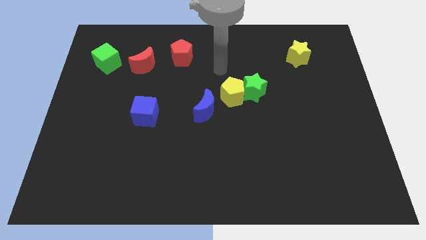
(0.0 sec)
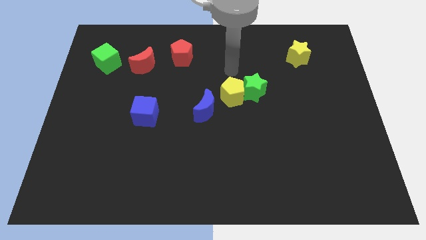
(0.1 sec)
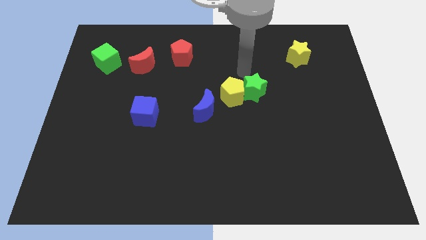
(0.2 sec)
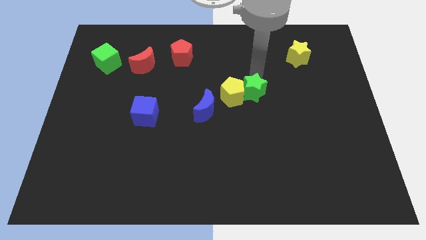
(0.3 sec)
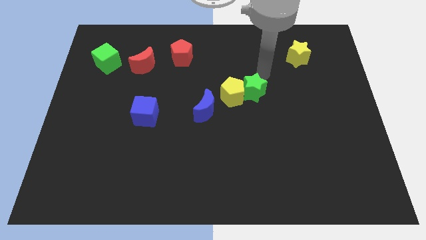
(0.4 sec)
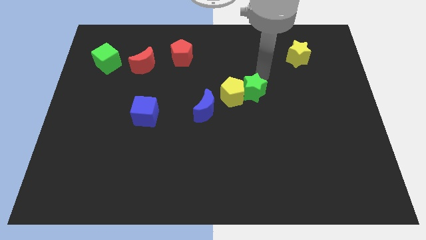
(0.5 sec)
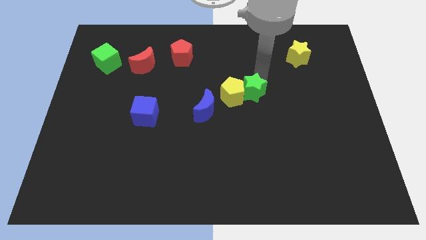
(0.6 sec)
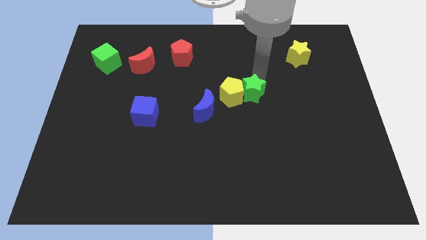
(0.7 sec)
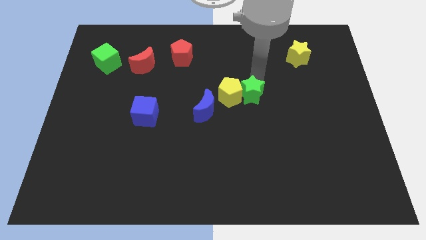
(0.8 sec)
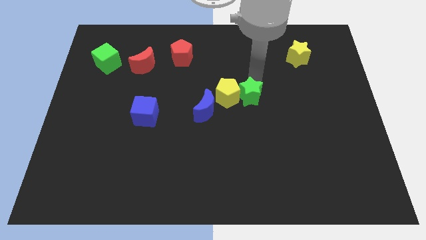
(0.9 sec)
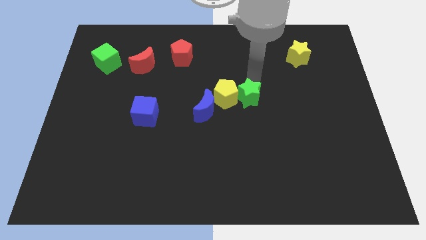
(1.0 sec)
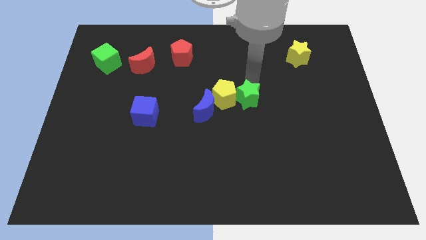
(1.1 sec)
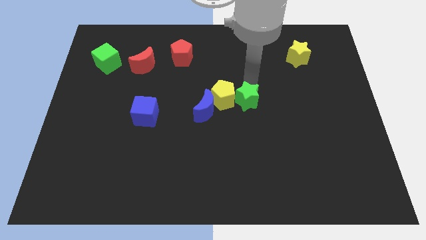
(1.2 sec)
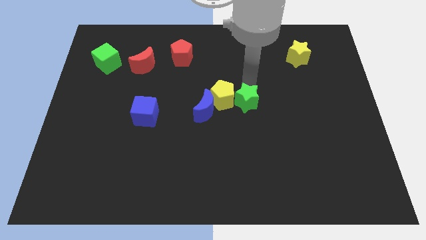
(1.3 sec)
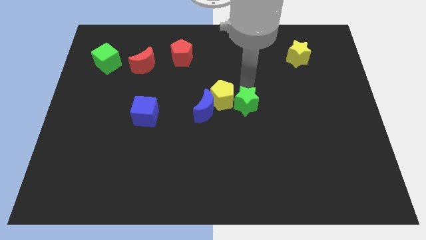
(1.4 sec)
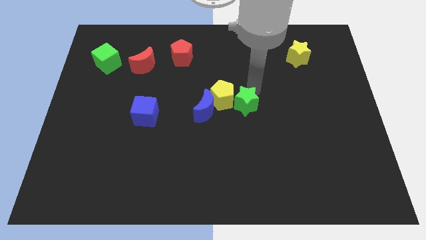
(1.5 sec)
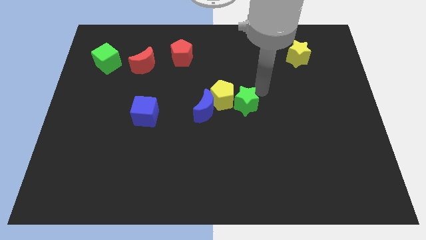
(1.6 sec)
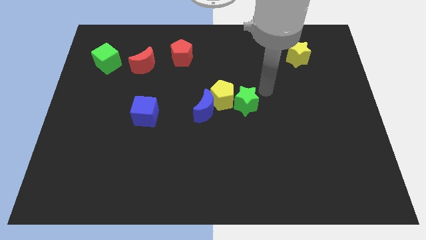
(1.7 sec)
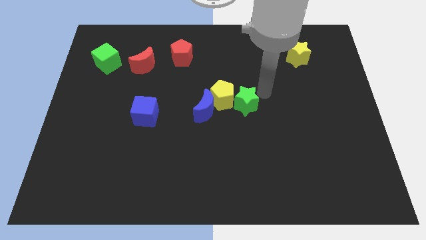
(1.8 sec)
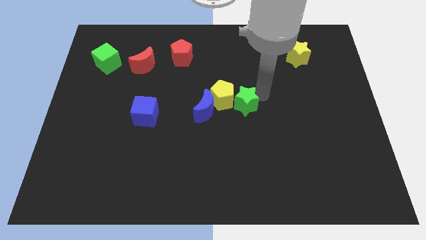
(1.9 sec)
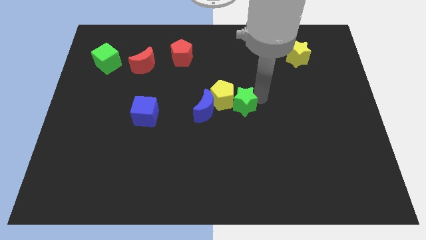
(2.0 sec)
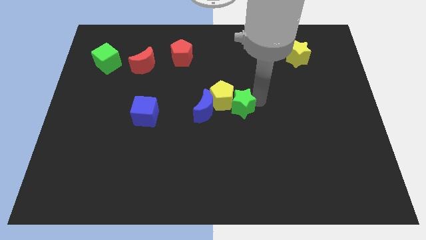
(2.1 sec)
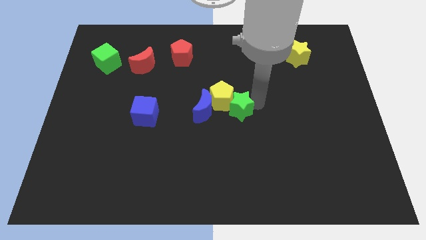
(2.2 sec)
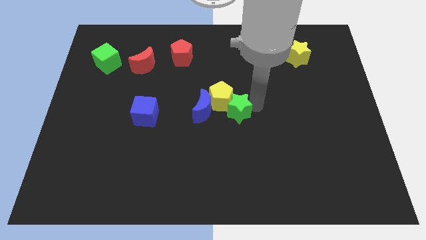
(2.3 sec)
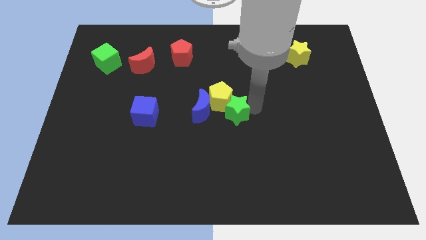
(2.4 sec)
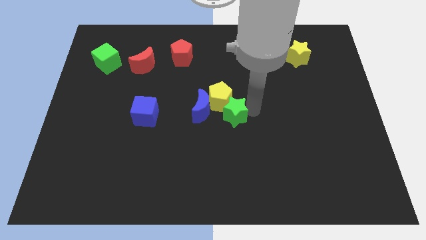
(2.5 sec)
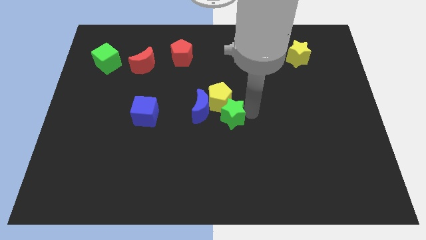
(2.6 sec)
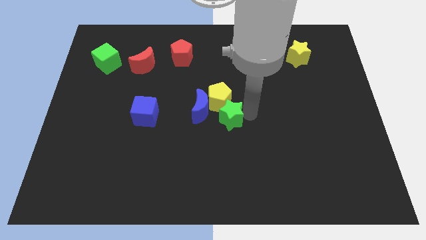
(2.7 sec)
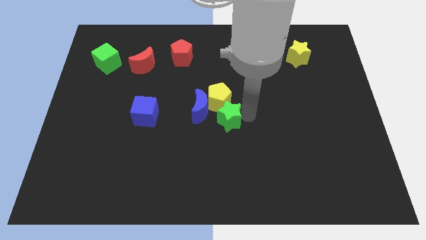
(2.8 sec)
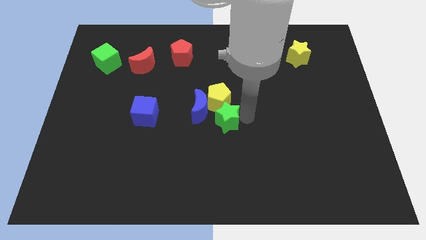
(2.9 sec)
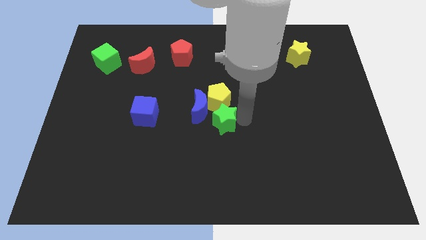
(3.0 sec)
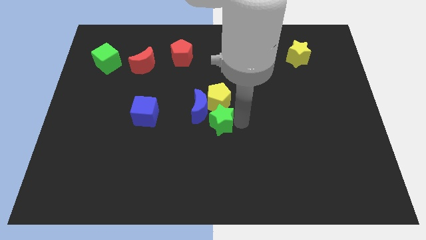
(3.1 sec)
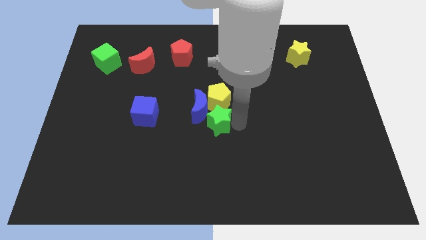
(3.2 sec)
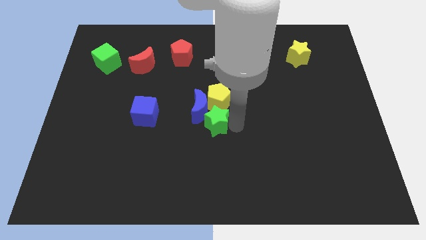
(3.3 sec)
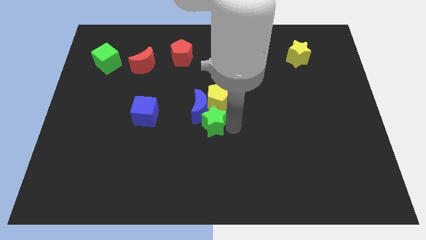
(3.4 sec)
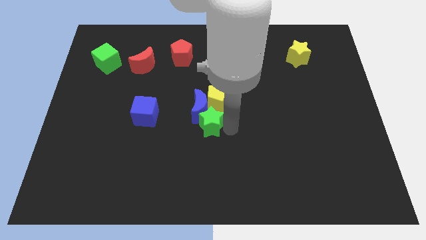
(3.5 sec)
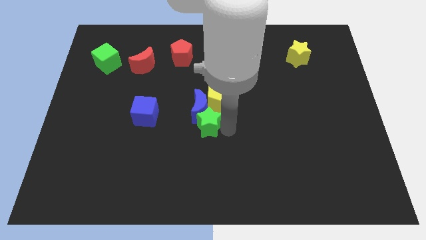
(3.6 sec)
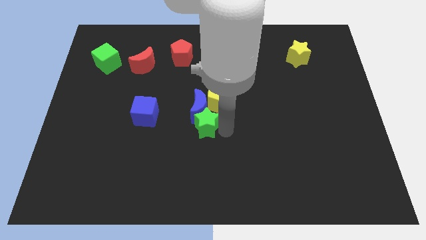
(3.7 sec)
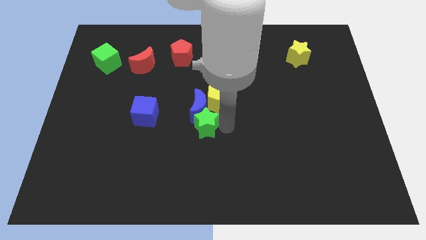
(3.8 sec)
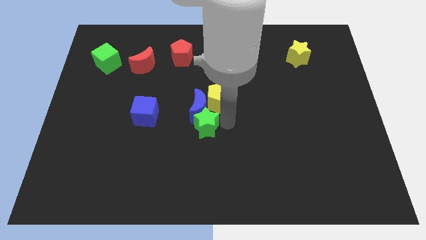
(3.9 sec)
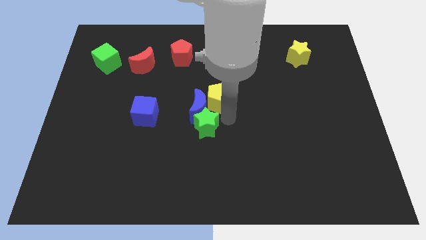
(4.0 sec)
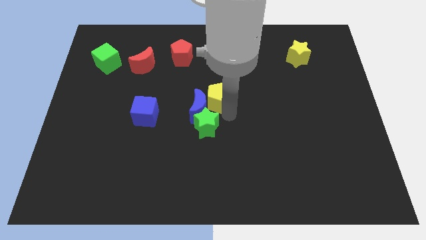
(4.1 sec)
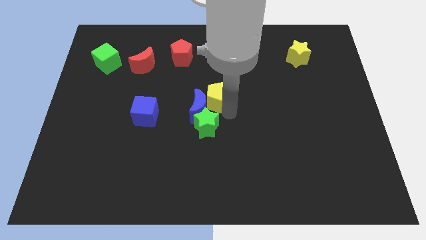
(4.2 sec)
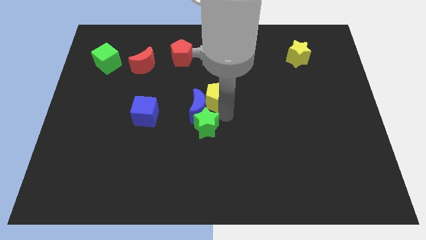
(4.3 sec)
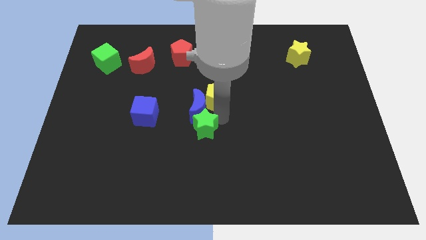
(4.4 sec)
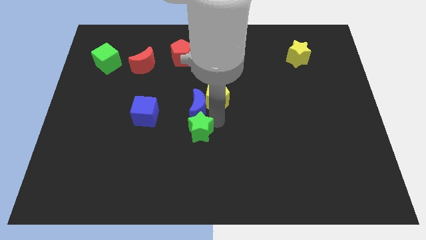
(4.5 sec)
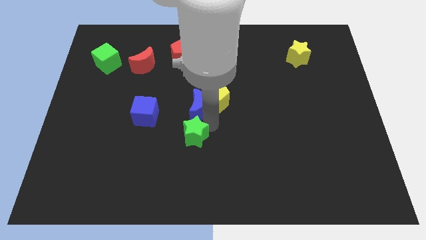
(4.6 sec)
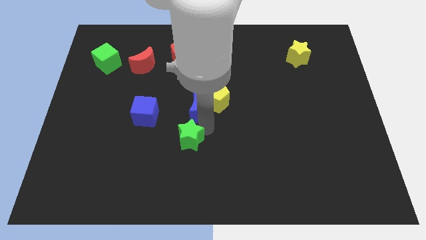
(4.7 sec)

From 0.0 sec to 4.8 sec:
slide the green star diagonally down and left

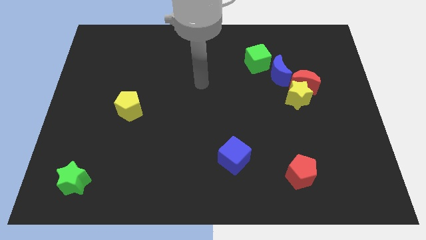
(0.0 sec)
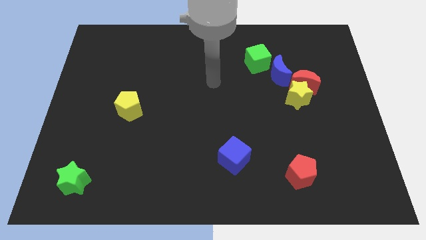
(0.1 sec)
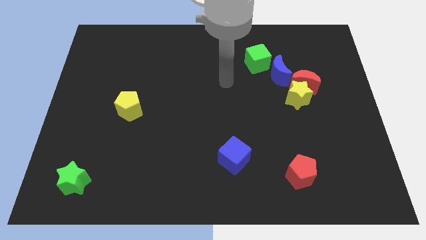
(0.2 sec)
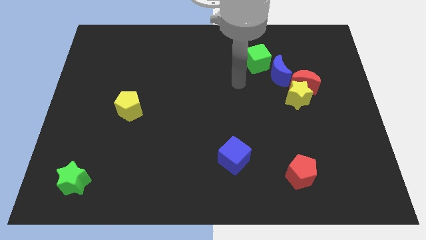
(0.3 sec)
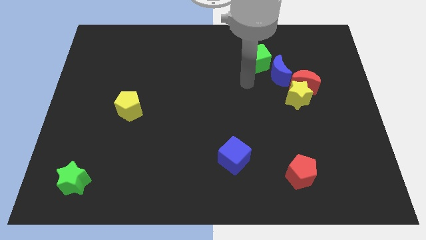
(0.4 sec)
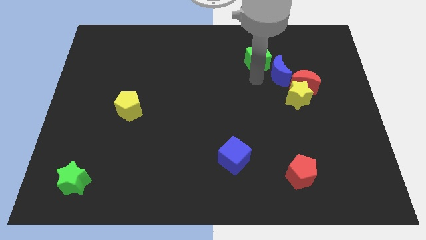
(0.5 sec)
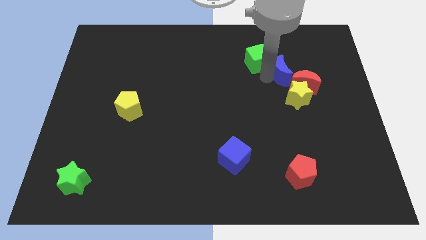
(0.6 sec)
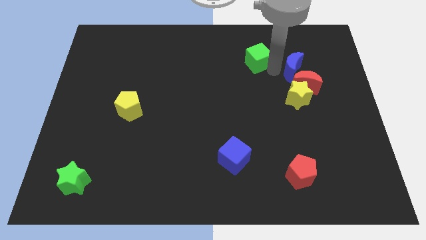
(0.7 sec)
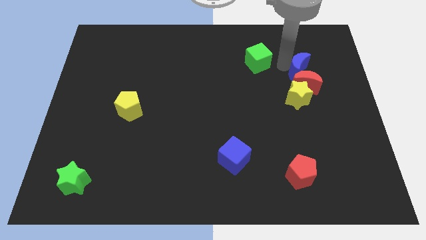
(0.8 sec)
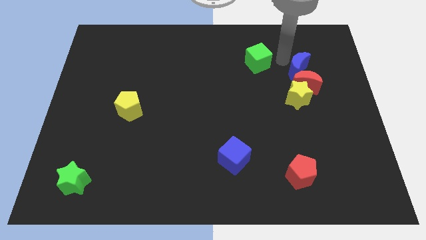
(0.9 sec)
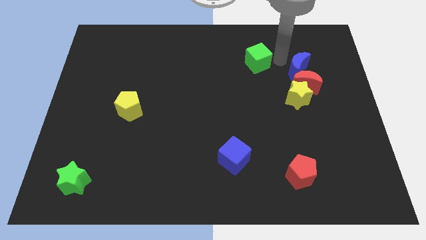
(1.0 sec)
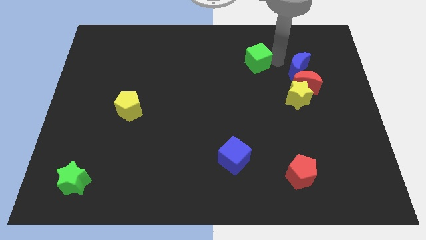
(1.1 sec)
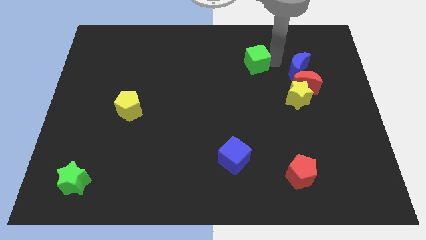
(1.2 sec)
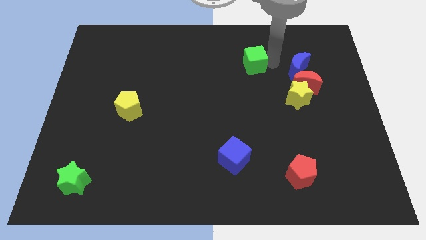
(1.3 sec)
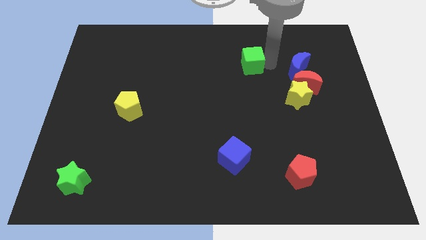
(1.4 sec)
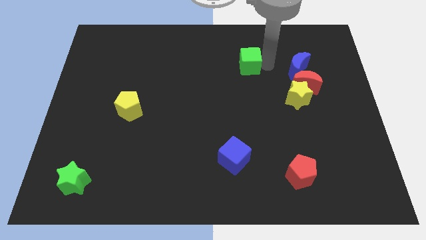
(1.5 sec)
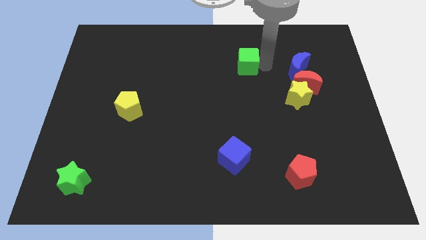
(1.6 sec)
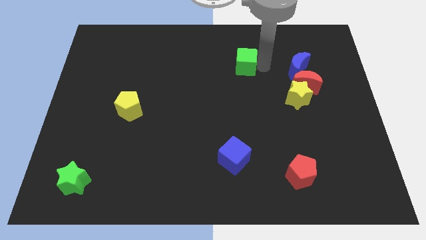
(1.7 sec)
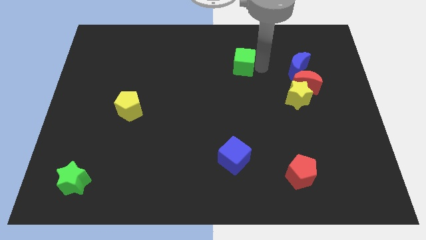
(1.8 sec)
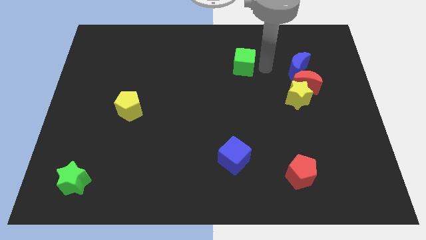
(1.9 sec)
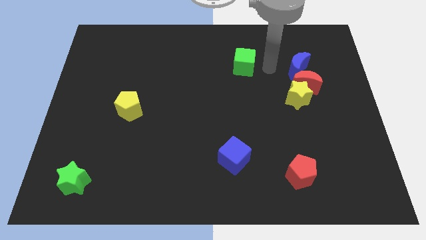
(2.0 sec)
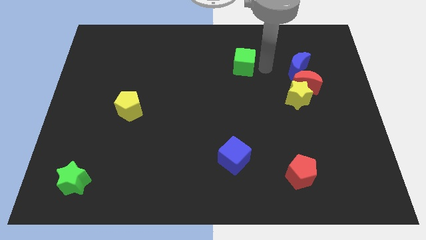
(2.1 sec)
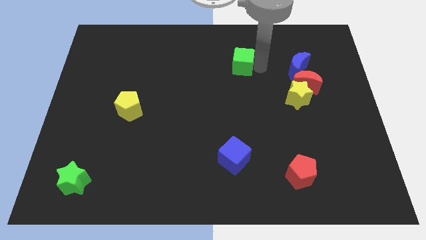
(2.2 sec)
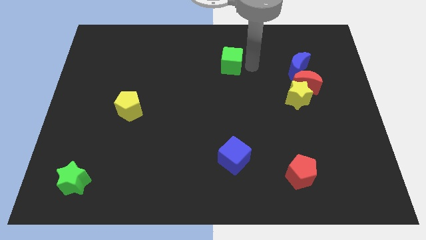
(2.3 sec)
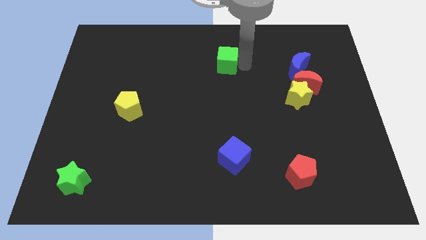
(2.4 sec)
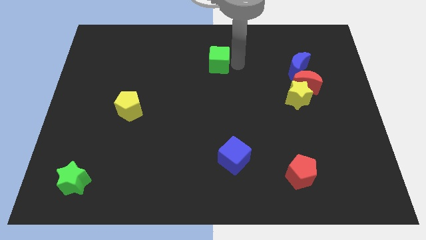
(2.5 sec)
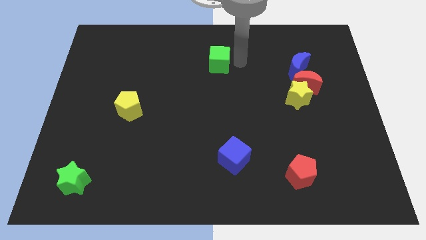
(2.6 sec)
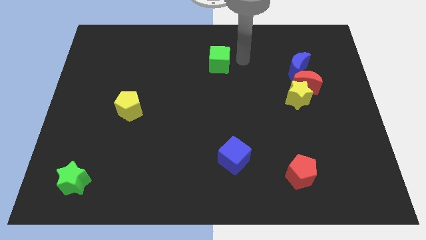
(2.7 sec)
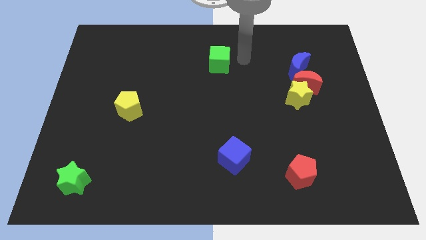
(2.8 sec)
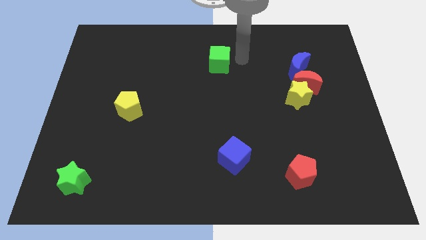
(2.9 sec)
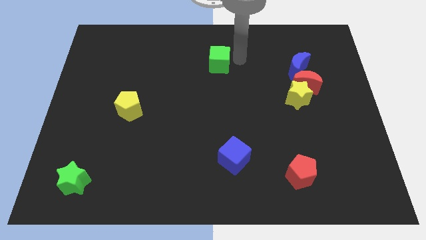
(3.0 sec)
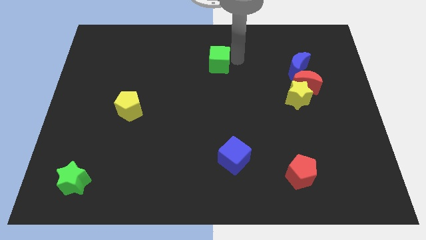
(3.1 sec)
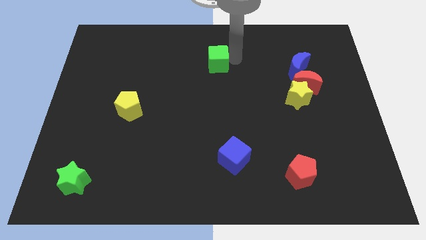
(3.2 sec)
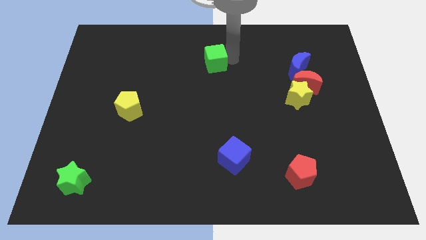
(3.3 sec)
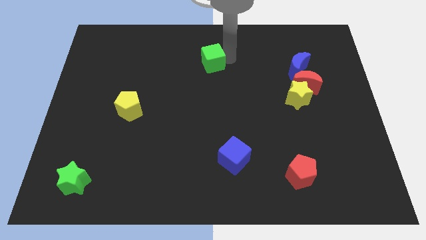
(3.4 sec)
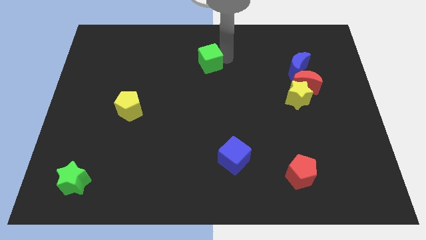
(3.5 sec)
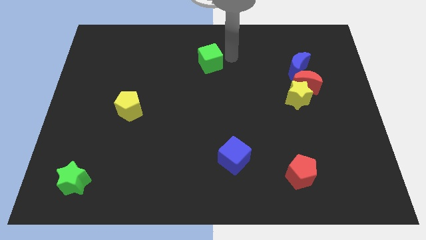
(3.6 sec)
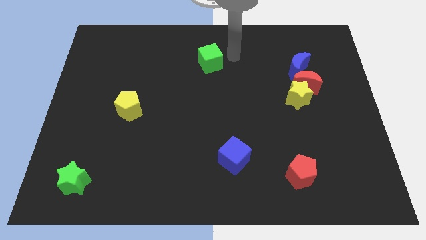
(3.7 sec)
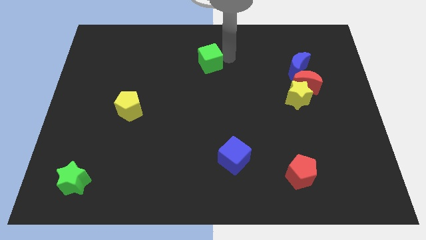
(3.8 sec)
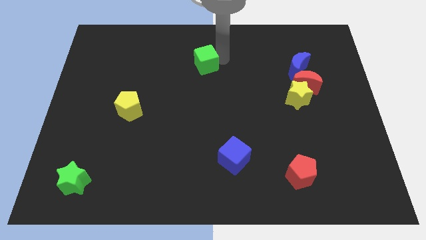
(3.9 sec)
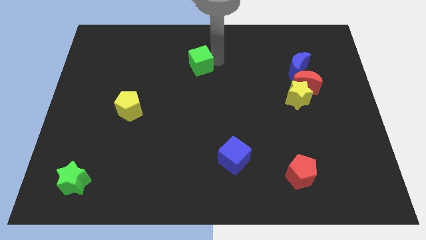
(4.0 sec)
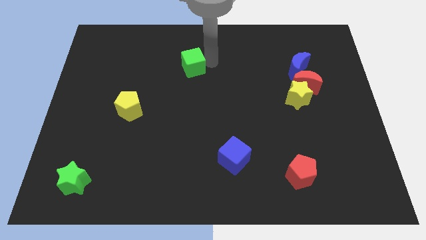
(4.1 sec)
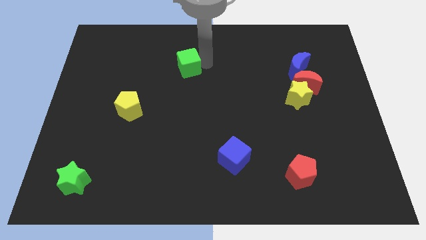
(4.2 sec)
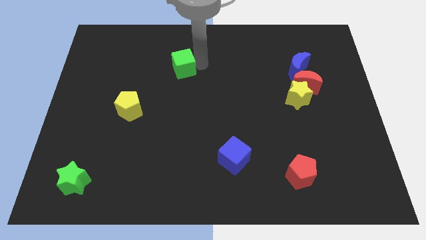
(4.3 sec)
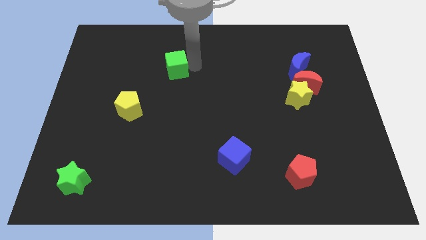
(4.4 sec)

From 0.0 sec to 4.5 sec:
move the green cube to the left
